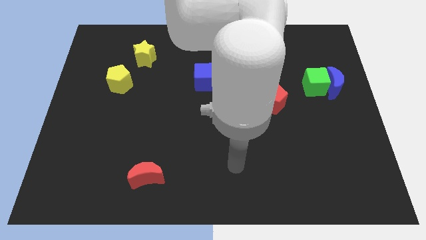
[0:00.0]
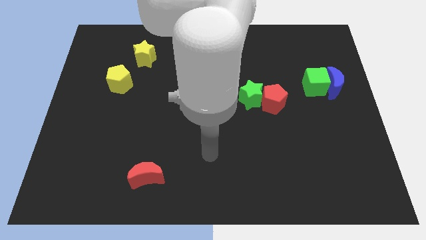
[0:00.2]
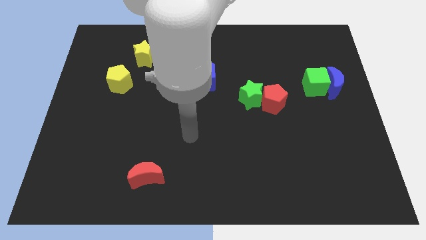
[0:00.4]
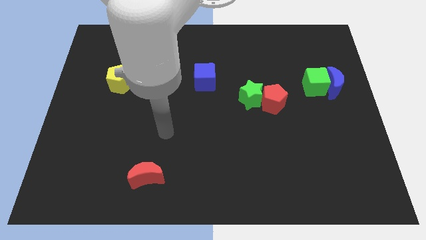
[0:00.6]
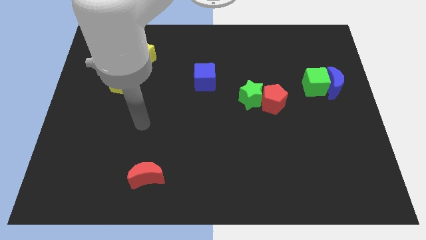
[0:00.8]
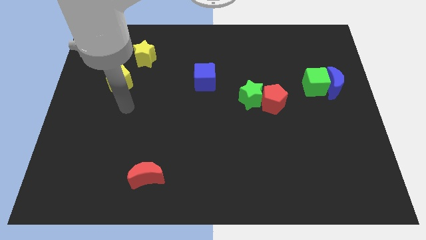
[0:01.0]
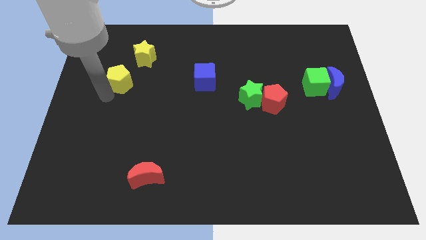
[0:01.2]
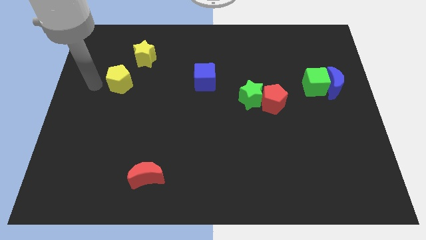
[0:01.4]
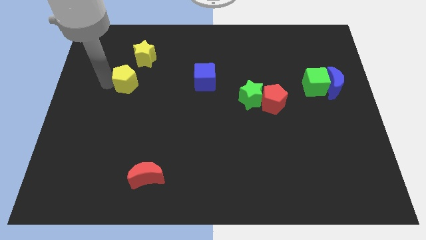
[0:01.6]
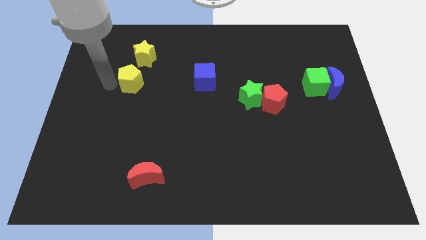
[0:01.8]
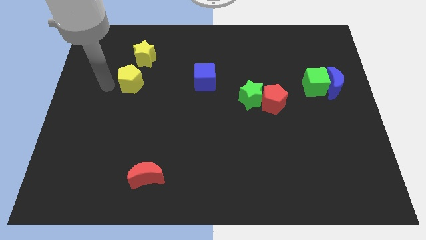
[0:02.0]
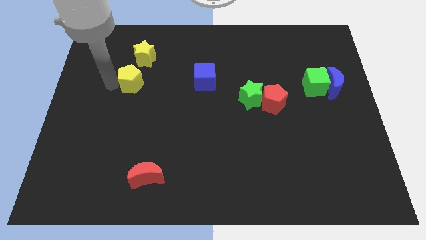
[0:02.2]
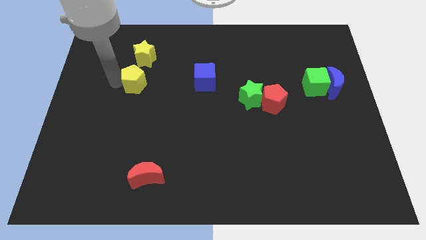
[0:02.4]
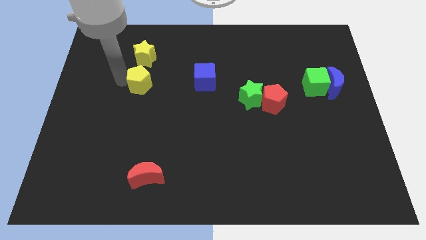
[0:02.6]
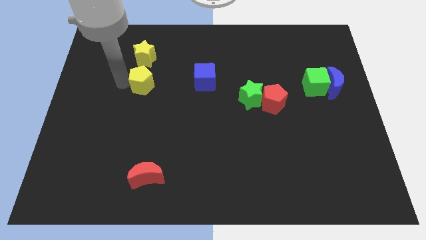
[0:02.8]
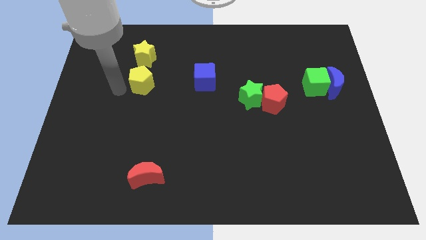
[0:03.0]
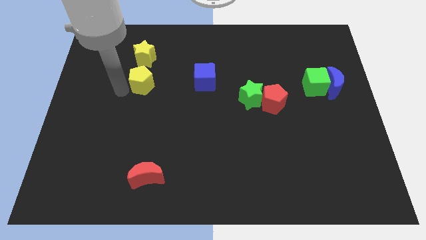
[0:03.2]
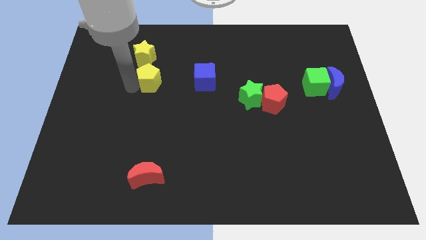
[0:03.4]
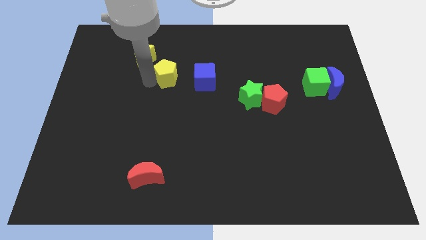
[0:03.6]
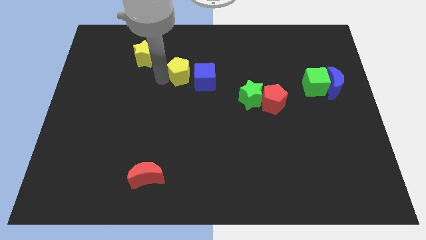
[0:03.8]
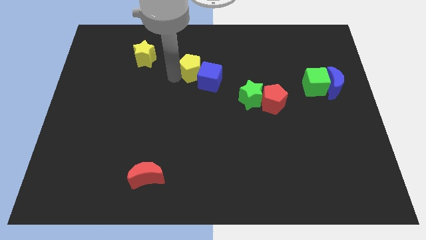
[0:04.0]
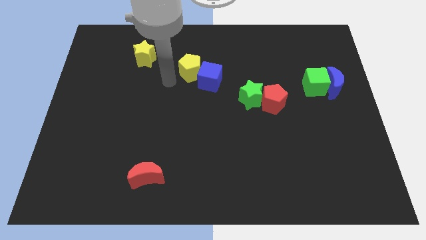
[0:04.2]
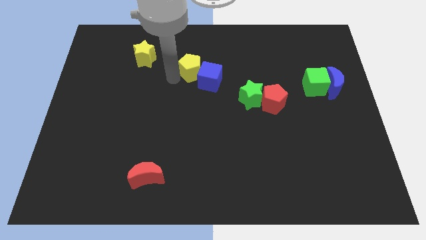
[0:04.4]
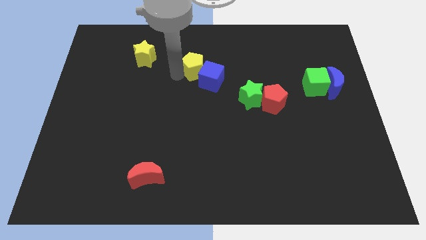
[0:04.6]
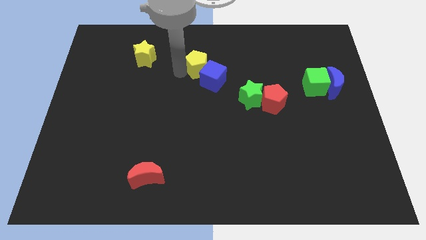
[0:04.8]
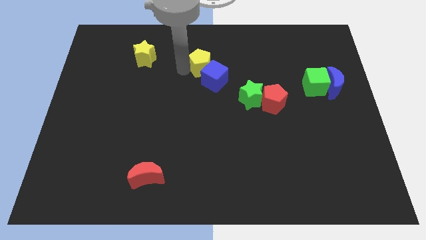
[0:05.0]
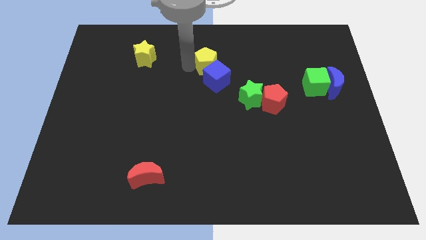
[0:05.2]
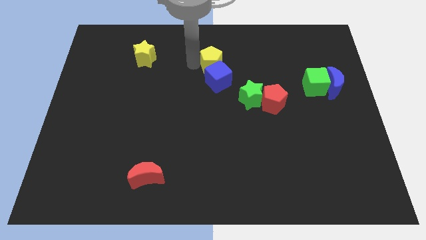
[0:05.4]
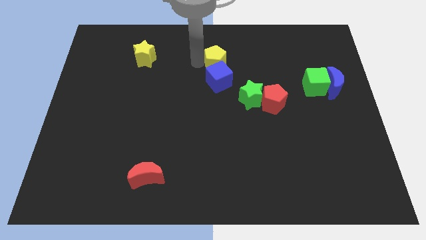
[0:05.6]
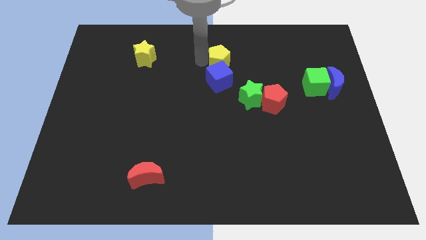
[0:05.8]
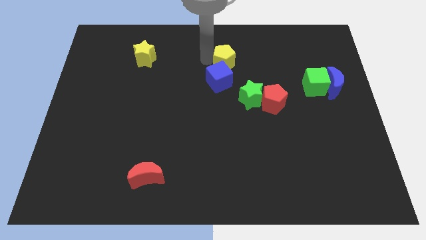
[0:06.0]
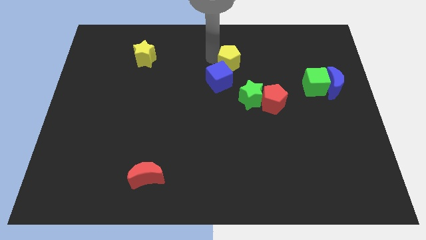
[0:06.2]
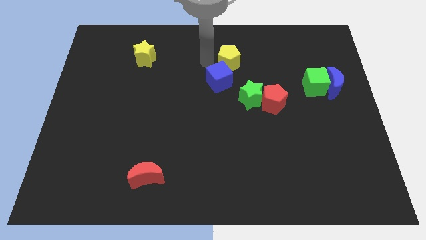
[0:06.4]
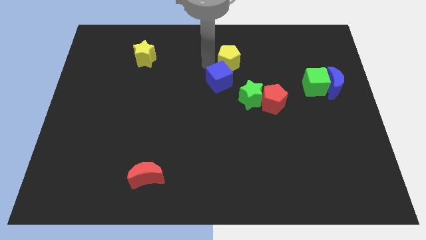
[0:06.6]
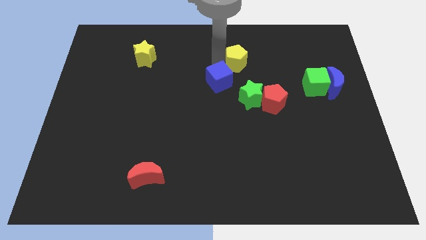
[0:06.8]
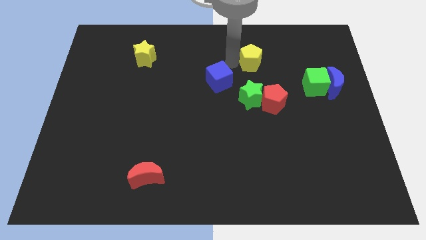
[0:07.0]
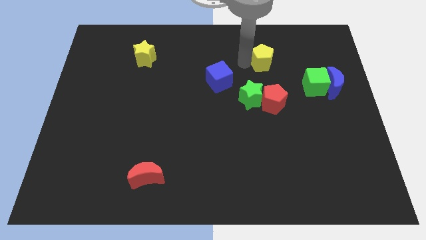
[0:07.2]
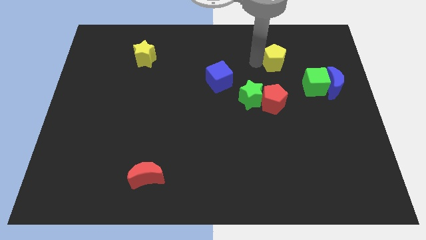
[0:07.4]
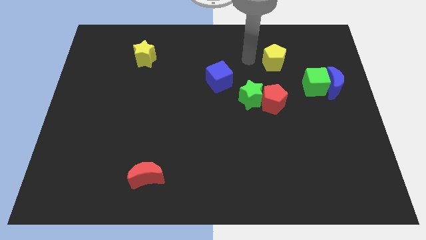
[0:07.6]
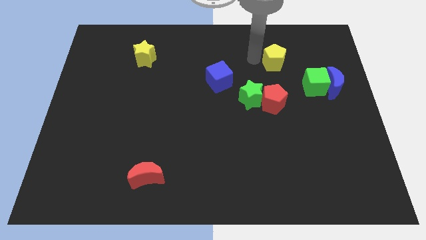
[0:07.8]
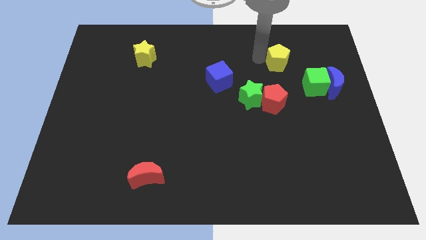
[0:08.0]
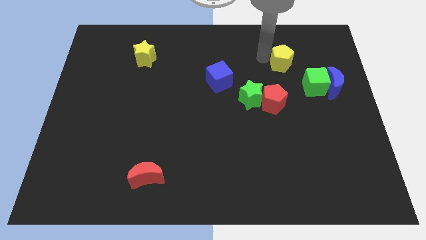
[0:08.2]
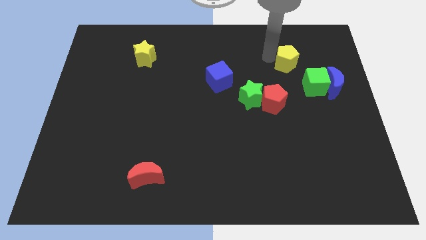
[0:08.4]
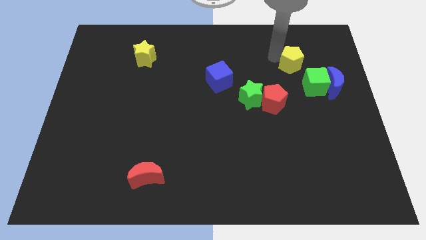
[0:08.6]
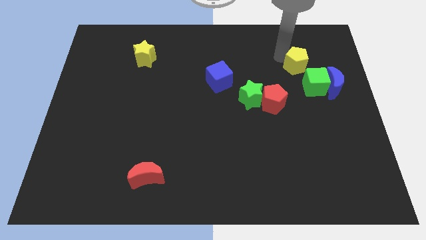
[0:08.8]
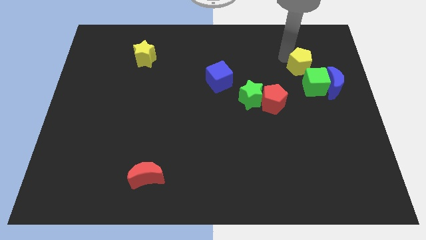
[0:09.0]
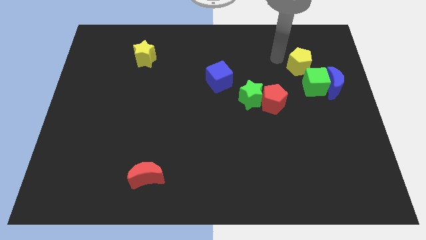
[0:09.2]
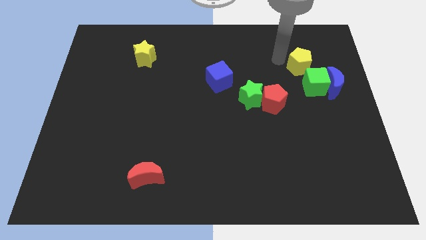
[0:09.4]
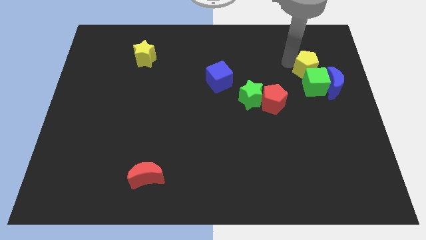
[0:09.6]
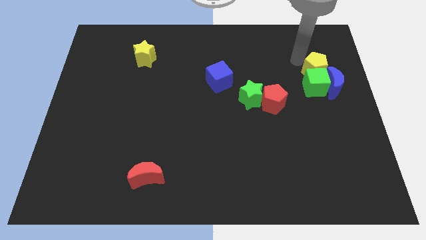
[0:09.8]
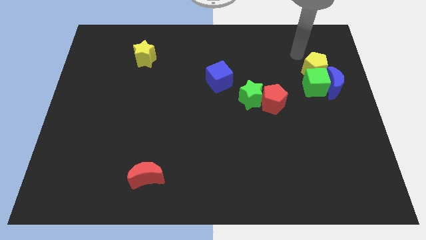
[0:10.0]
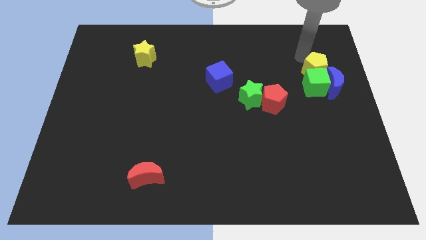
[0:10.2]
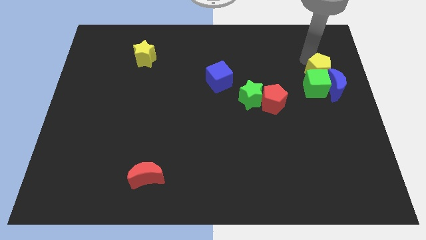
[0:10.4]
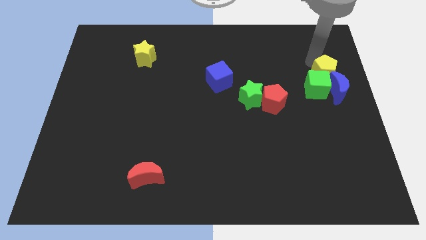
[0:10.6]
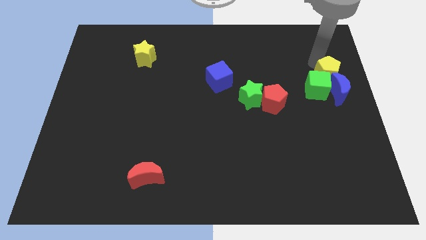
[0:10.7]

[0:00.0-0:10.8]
slide the yellow pentagon to the blue moon

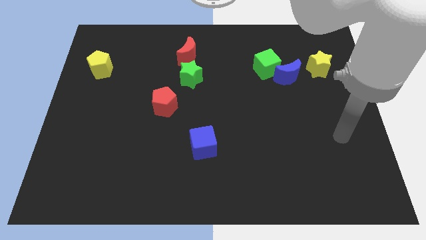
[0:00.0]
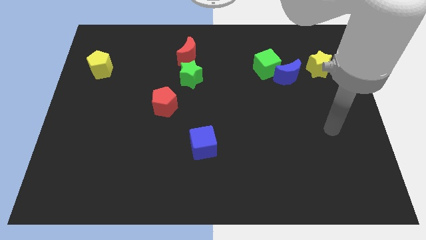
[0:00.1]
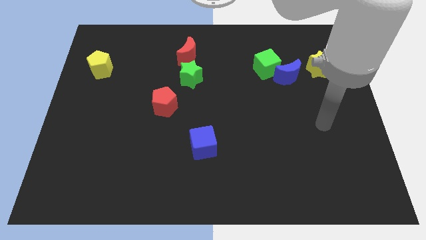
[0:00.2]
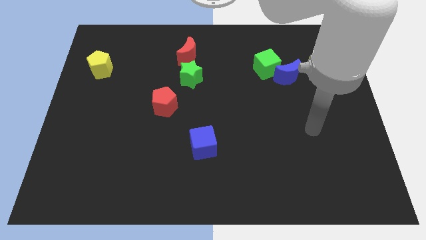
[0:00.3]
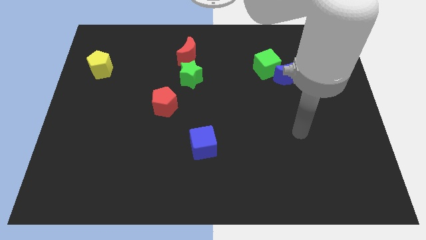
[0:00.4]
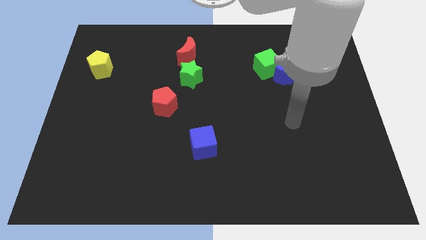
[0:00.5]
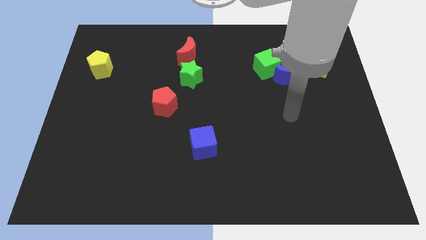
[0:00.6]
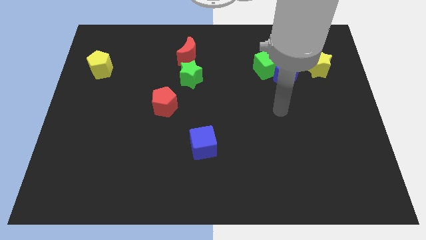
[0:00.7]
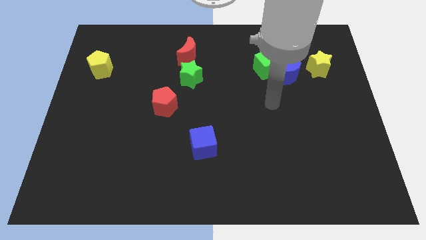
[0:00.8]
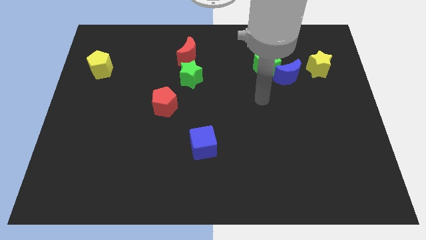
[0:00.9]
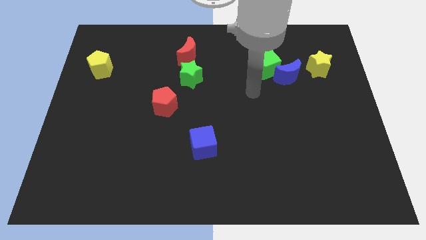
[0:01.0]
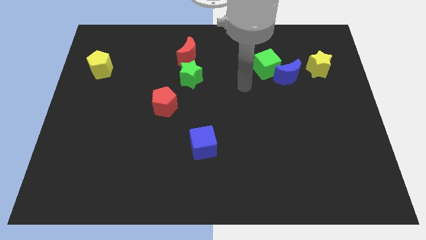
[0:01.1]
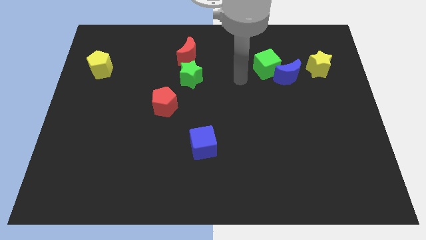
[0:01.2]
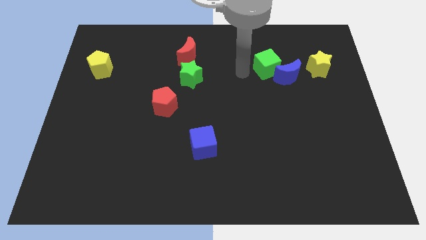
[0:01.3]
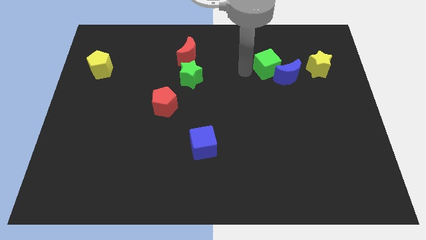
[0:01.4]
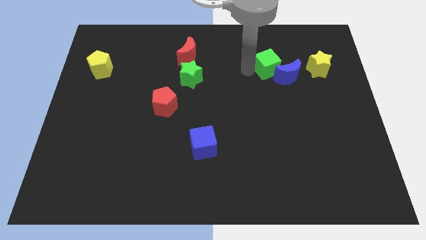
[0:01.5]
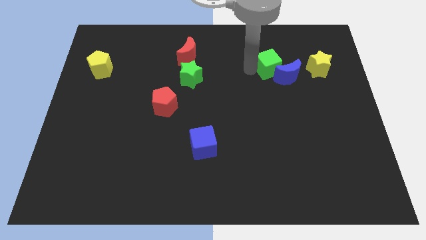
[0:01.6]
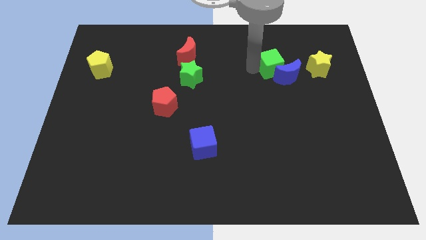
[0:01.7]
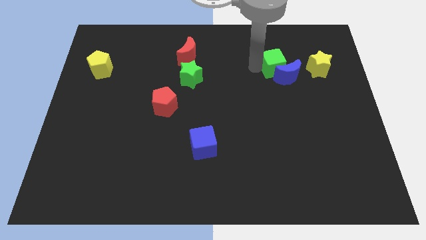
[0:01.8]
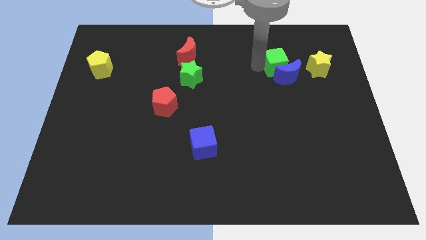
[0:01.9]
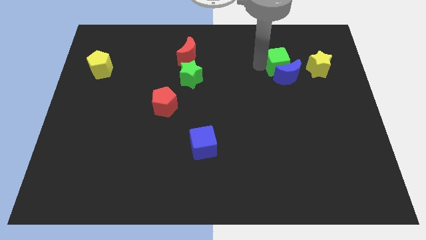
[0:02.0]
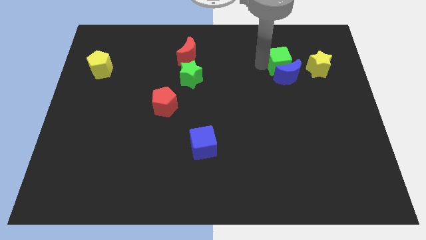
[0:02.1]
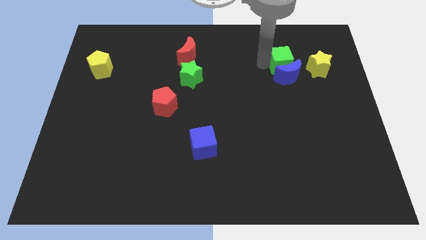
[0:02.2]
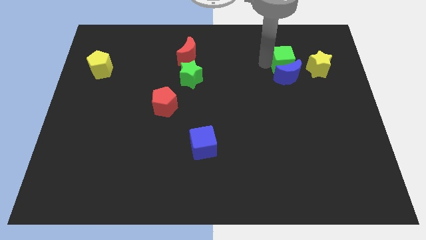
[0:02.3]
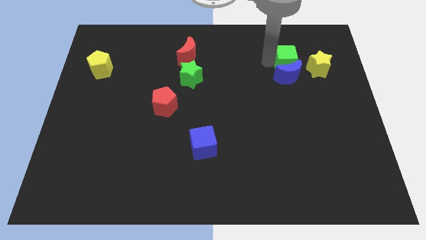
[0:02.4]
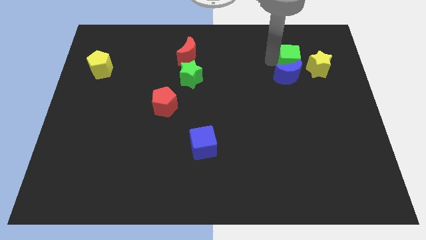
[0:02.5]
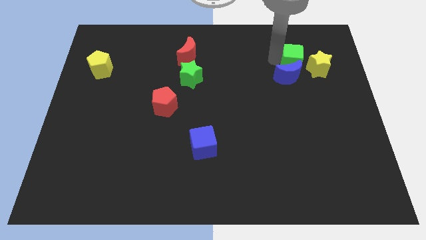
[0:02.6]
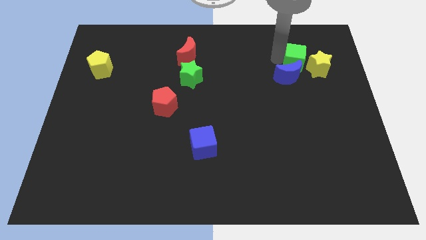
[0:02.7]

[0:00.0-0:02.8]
push the green cube towards the yellow star
